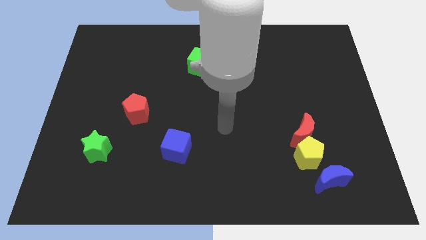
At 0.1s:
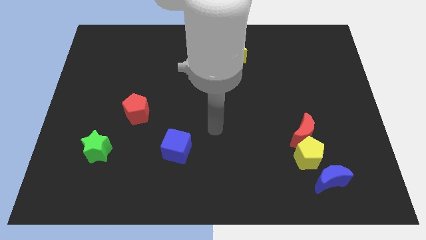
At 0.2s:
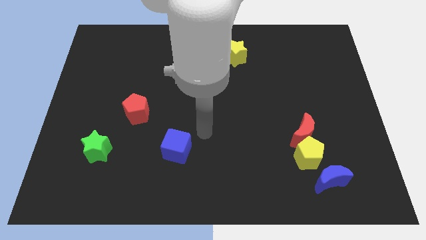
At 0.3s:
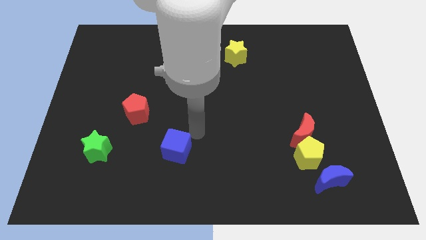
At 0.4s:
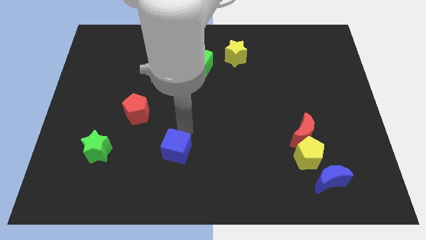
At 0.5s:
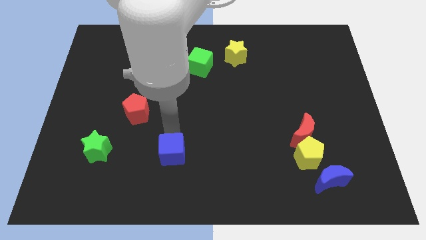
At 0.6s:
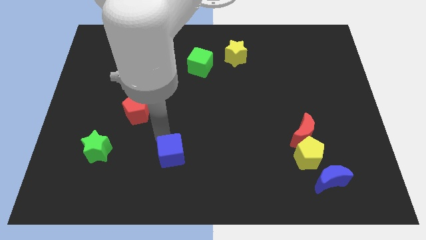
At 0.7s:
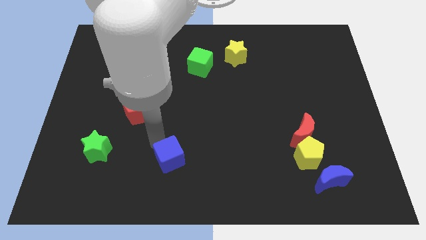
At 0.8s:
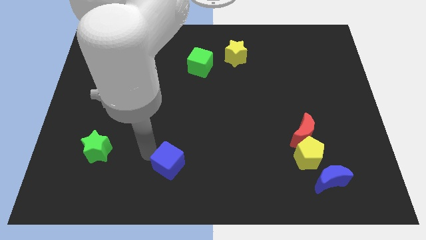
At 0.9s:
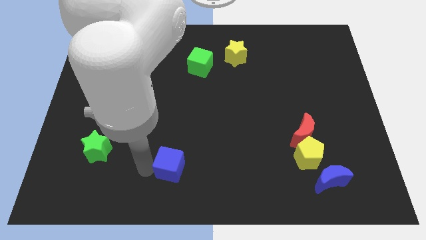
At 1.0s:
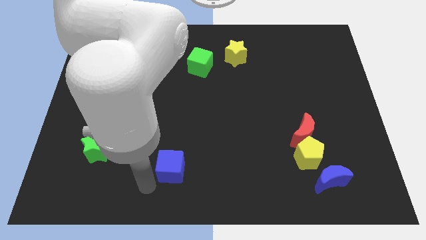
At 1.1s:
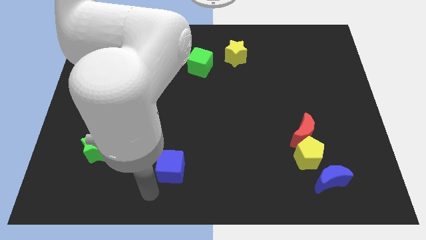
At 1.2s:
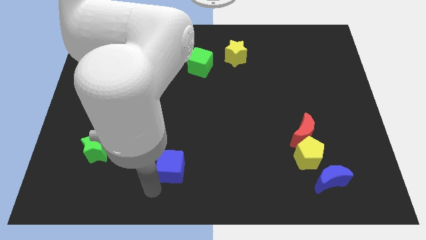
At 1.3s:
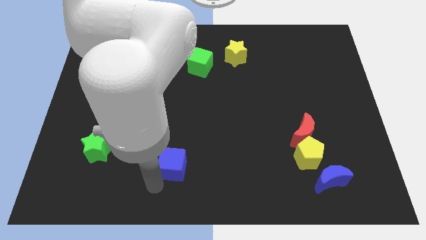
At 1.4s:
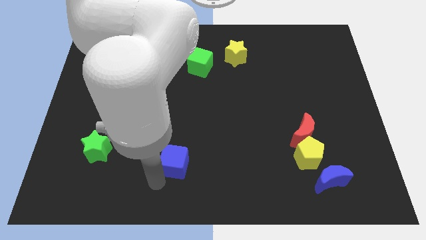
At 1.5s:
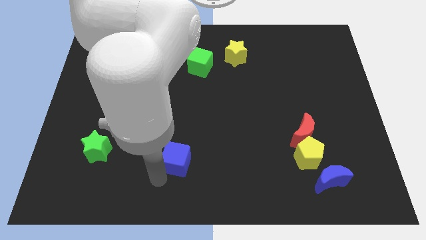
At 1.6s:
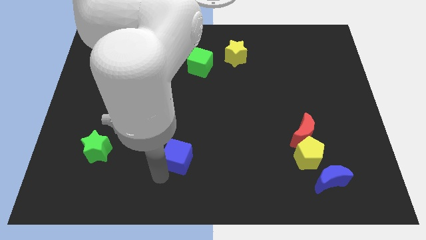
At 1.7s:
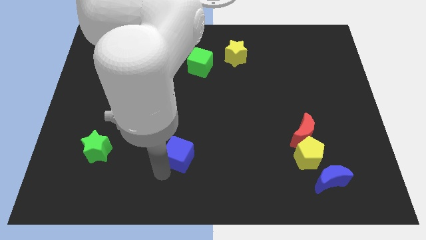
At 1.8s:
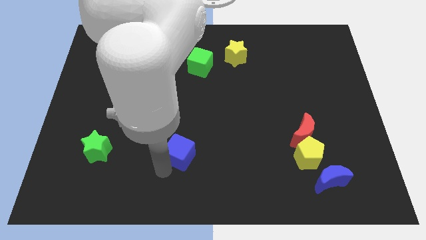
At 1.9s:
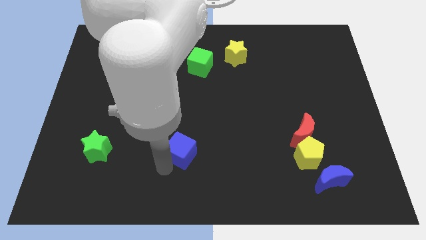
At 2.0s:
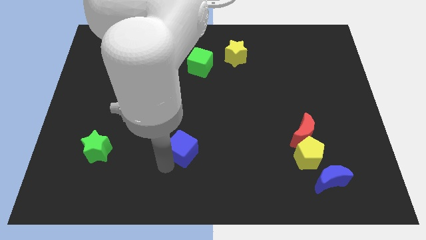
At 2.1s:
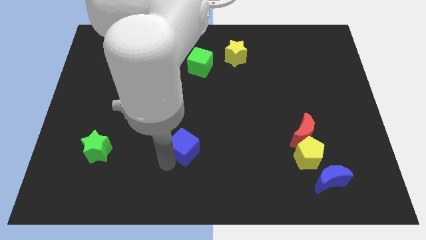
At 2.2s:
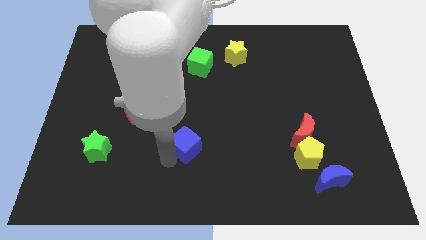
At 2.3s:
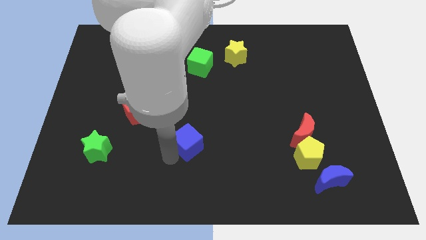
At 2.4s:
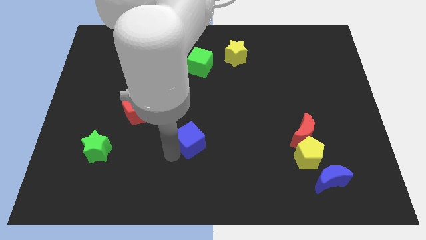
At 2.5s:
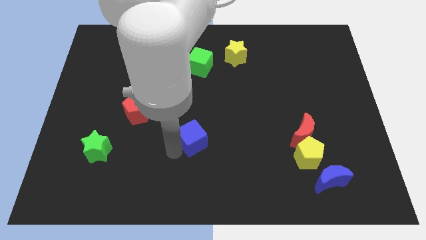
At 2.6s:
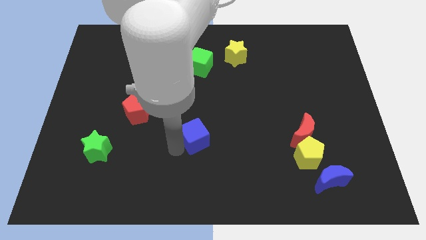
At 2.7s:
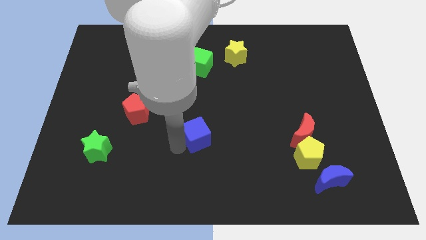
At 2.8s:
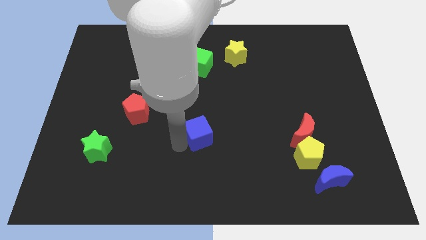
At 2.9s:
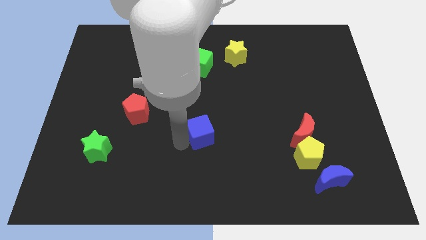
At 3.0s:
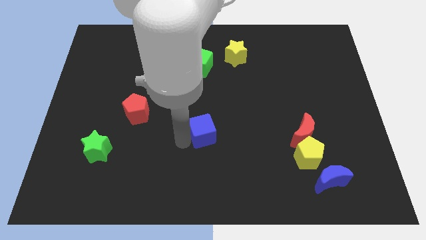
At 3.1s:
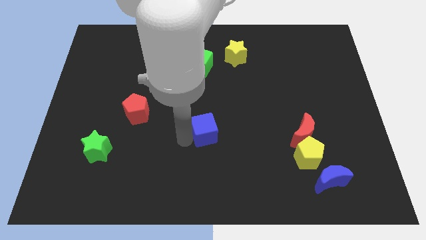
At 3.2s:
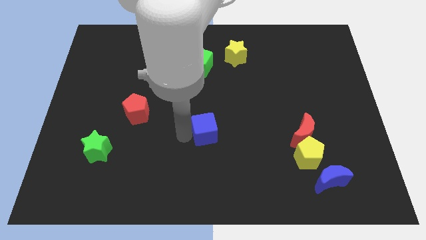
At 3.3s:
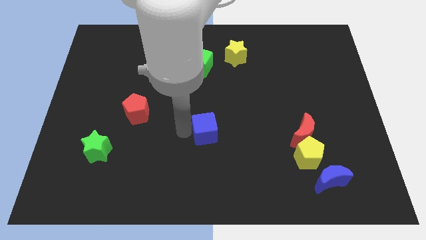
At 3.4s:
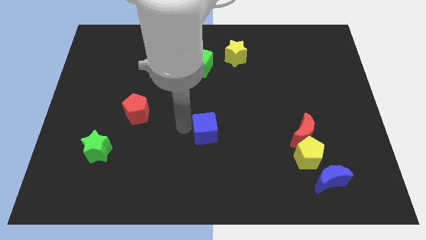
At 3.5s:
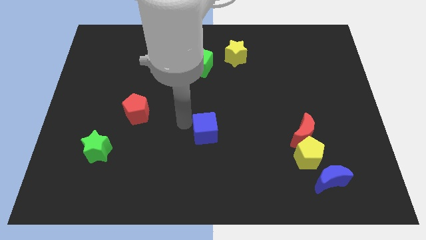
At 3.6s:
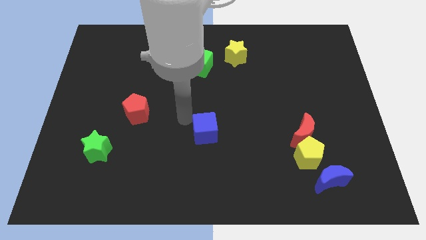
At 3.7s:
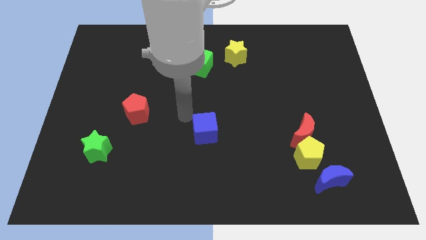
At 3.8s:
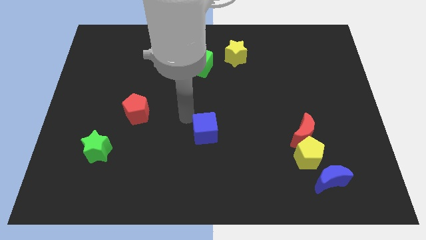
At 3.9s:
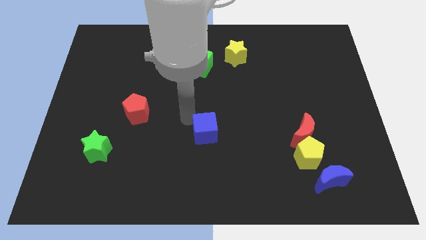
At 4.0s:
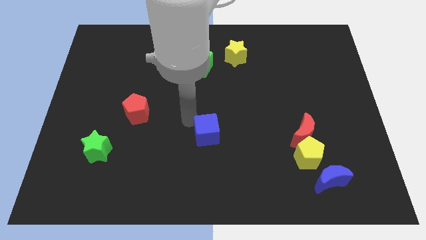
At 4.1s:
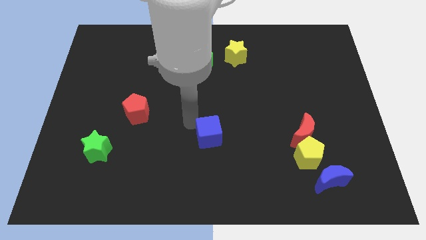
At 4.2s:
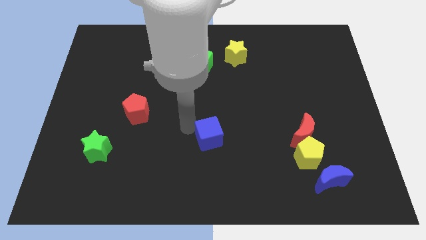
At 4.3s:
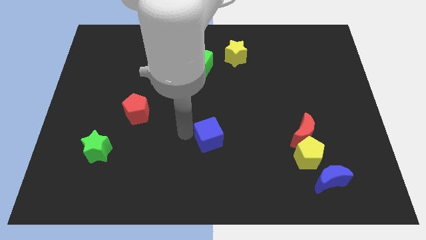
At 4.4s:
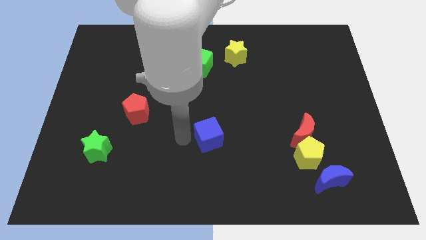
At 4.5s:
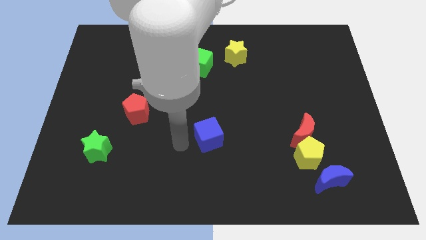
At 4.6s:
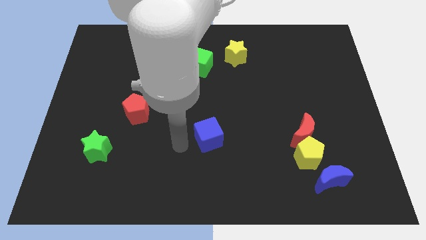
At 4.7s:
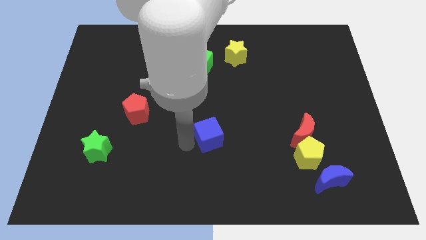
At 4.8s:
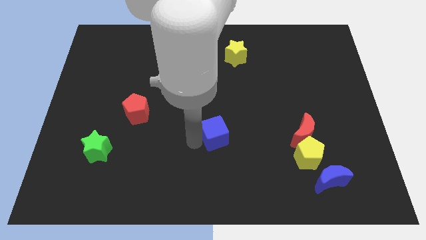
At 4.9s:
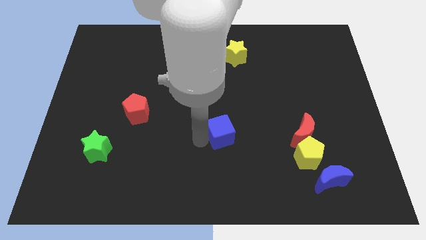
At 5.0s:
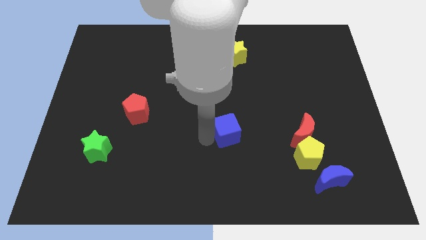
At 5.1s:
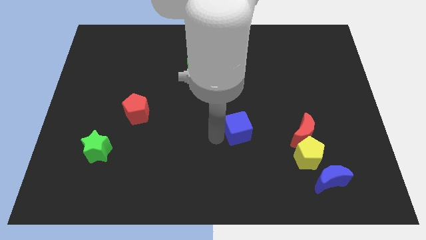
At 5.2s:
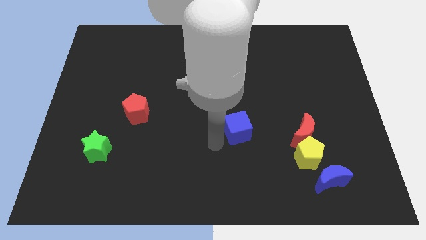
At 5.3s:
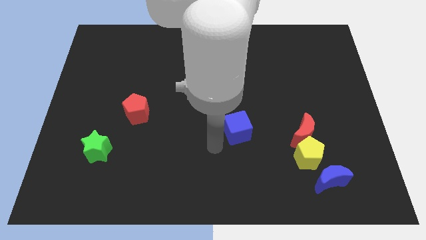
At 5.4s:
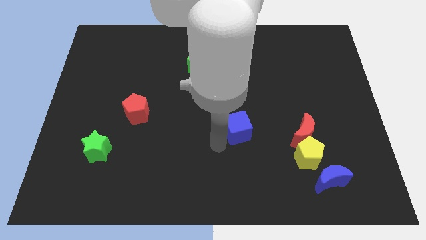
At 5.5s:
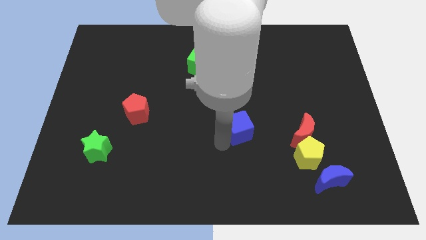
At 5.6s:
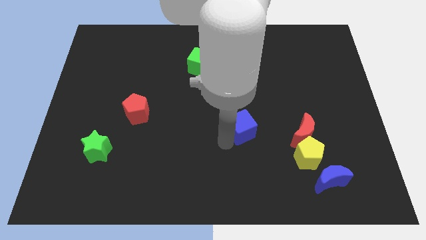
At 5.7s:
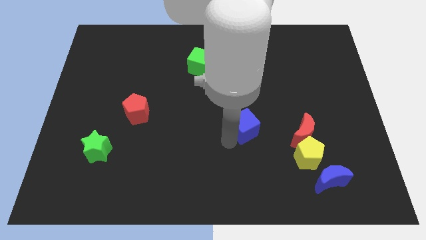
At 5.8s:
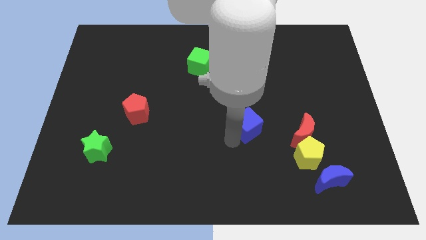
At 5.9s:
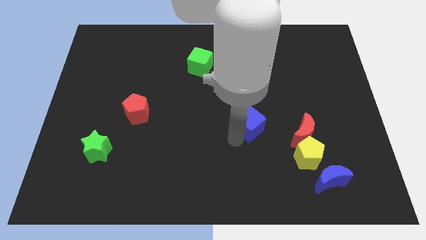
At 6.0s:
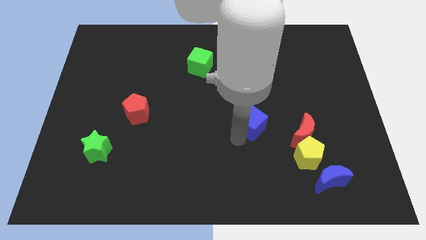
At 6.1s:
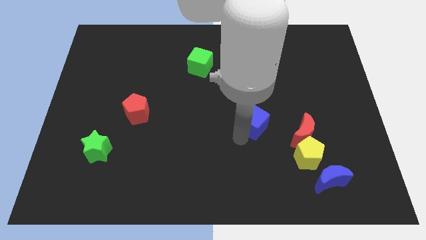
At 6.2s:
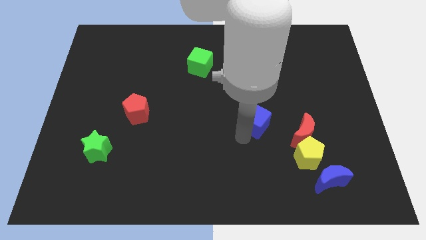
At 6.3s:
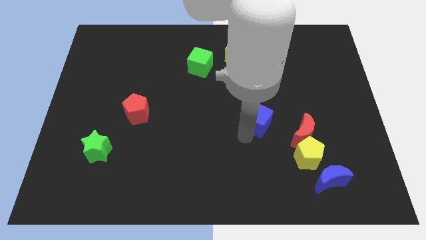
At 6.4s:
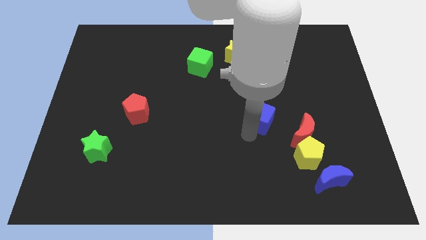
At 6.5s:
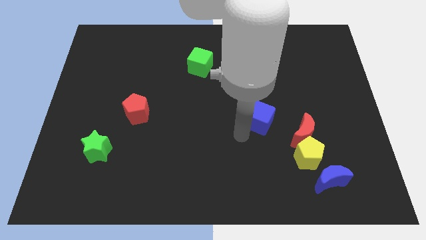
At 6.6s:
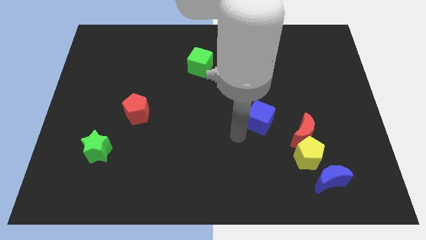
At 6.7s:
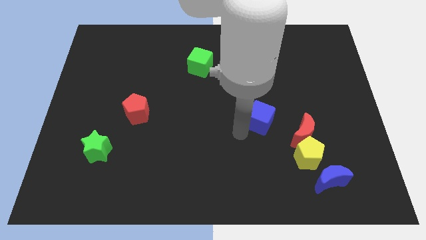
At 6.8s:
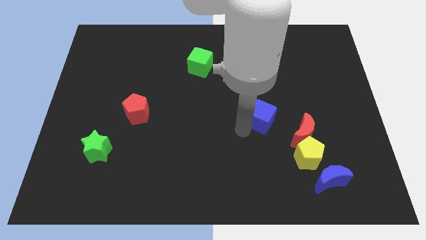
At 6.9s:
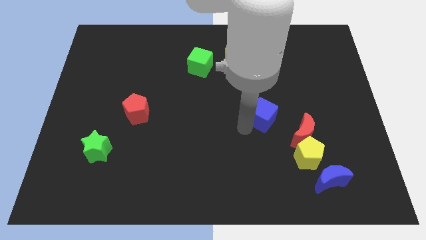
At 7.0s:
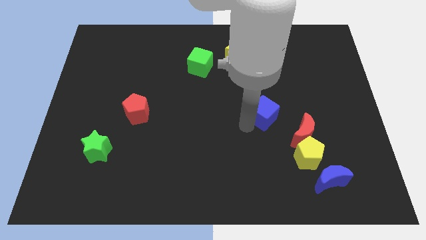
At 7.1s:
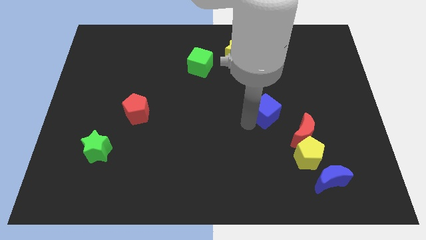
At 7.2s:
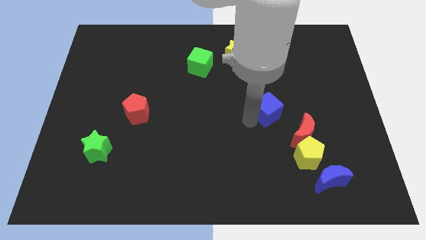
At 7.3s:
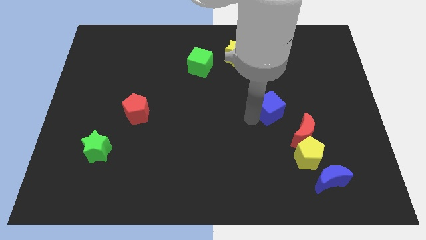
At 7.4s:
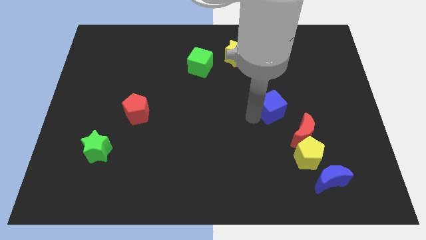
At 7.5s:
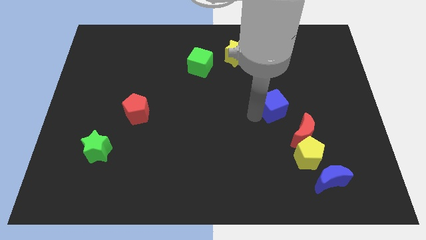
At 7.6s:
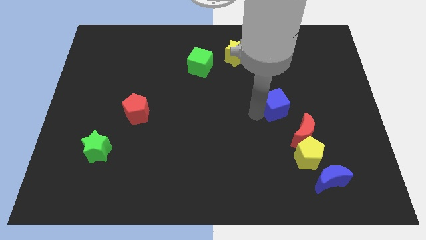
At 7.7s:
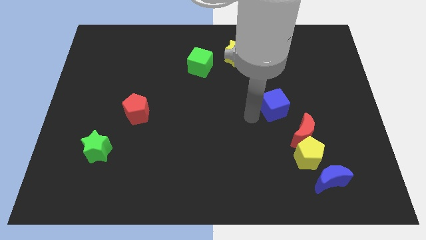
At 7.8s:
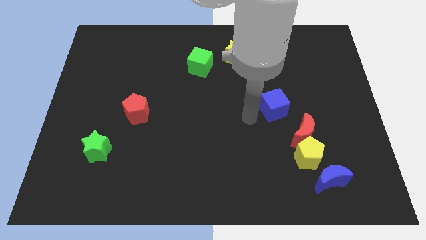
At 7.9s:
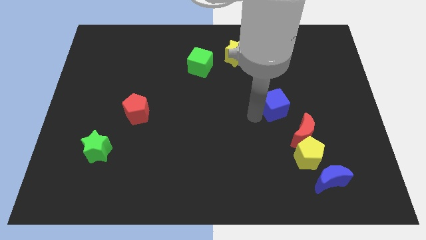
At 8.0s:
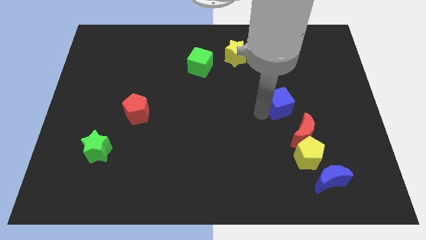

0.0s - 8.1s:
move the blue cube above the red moon
